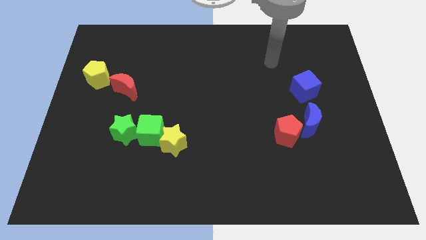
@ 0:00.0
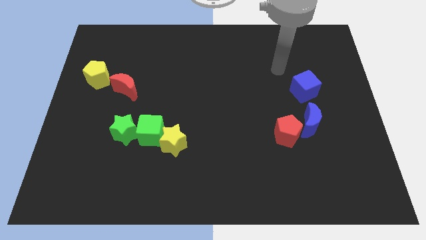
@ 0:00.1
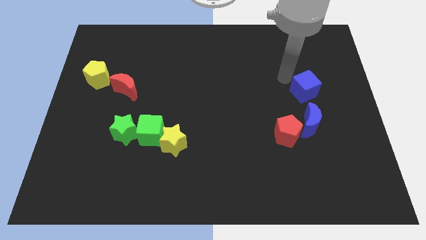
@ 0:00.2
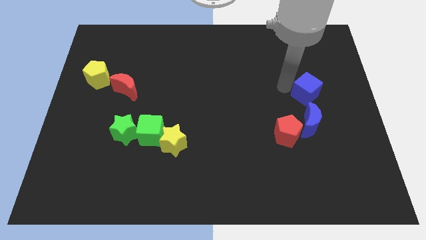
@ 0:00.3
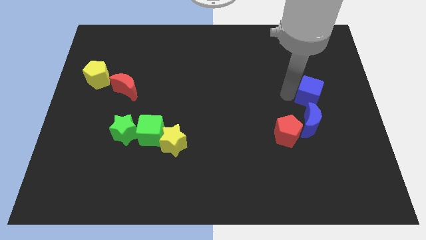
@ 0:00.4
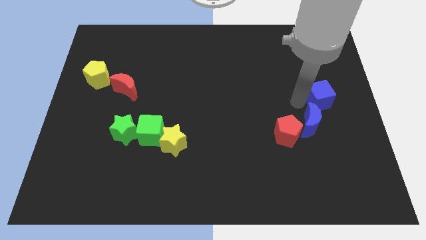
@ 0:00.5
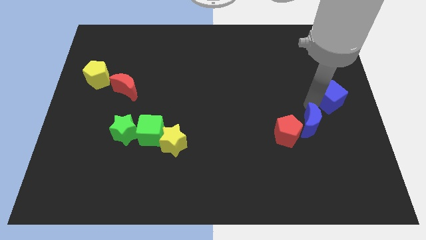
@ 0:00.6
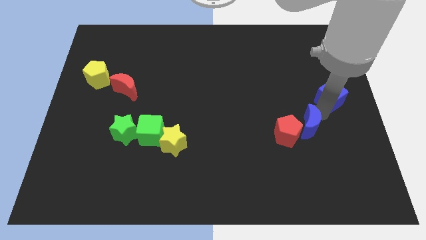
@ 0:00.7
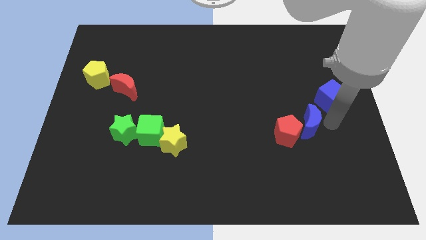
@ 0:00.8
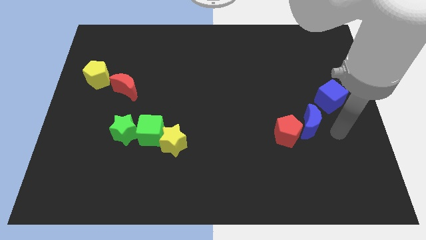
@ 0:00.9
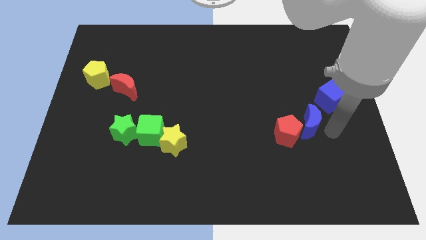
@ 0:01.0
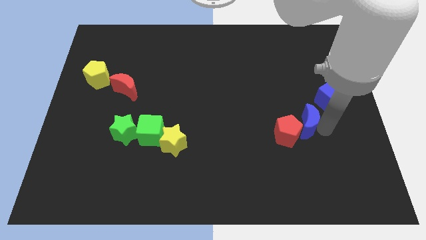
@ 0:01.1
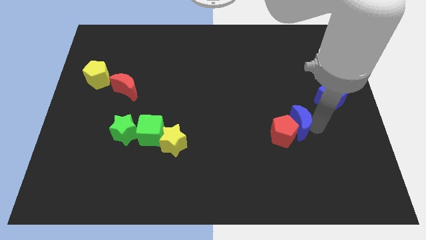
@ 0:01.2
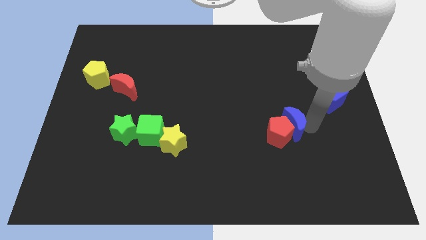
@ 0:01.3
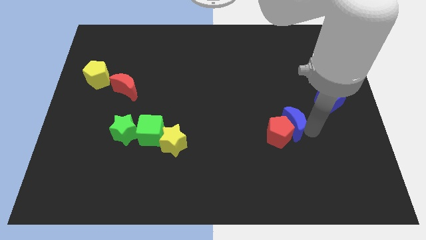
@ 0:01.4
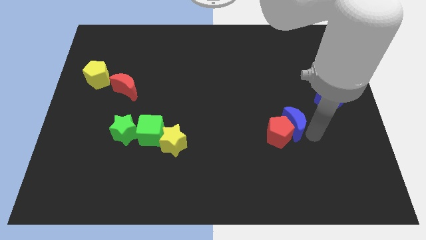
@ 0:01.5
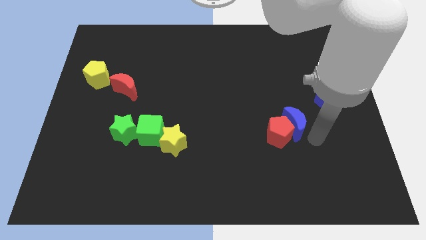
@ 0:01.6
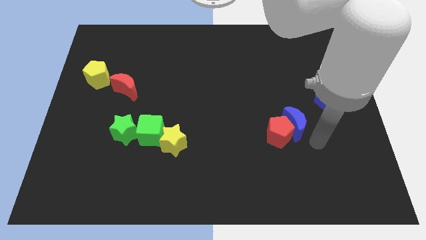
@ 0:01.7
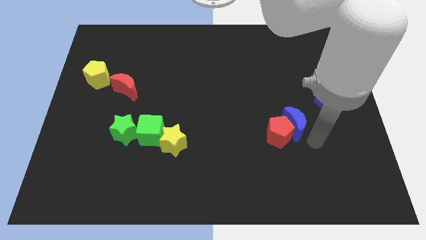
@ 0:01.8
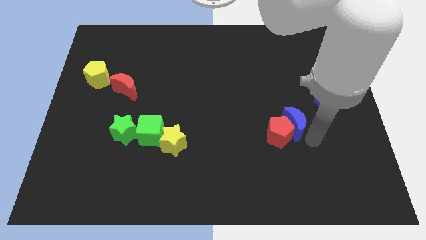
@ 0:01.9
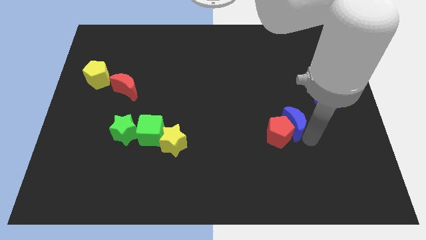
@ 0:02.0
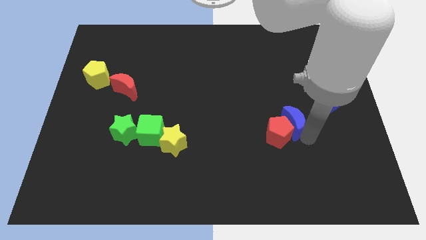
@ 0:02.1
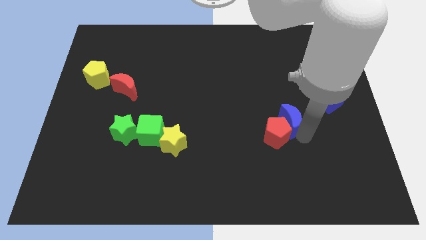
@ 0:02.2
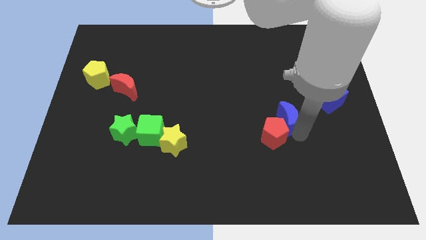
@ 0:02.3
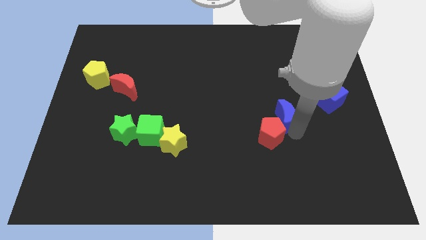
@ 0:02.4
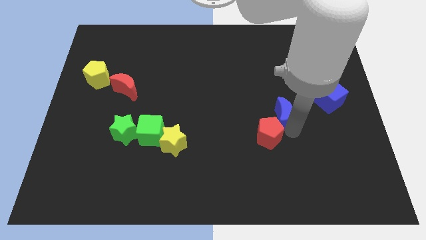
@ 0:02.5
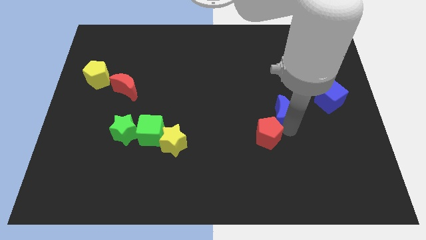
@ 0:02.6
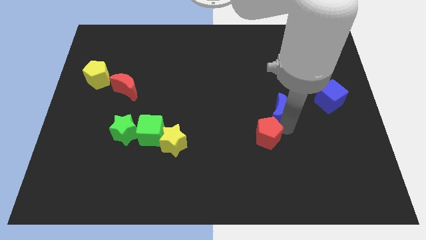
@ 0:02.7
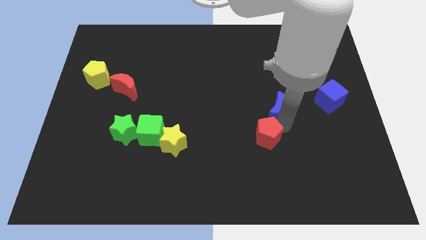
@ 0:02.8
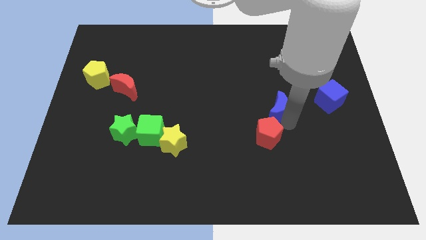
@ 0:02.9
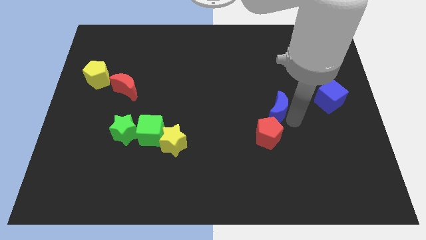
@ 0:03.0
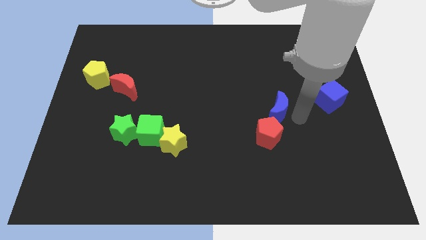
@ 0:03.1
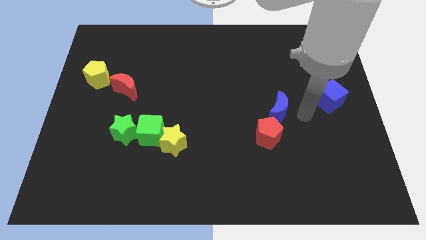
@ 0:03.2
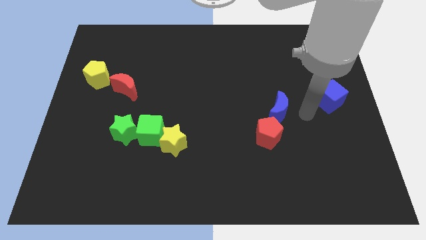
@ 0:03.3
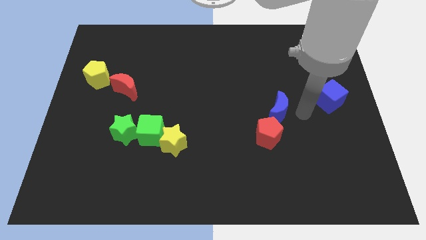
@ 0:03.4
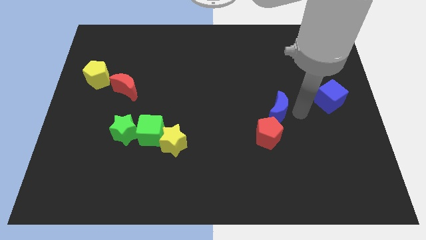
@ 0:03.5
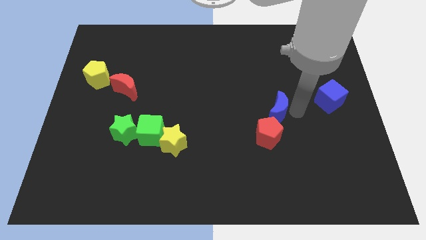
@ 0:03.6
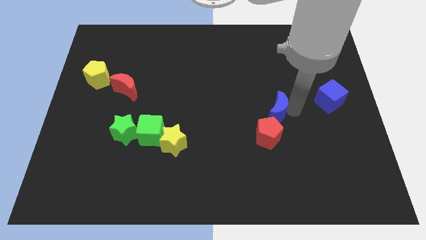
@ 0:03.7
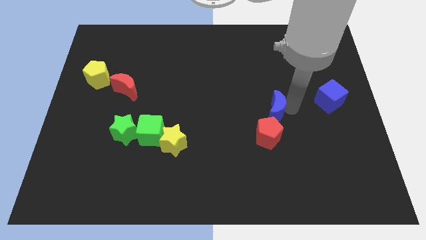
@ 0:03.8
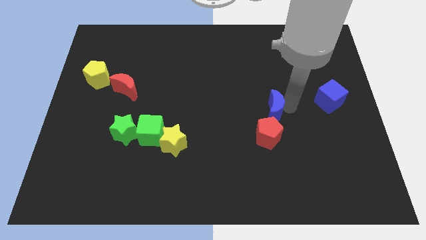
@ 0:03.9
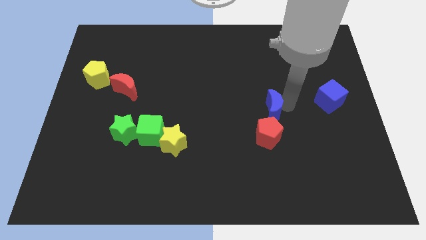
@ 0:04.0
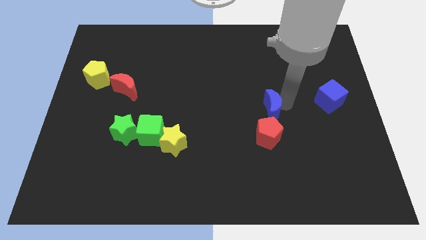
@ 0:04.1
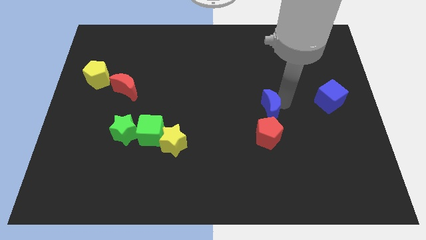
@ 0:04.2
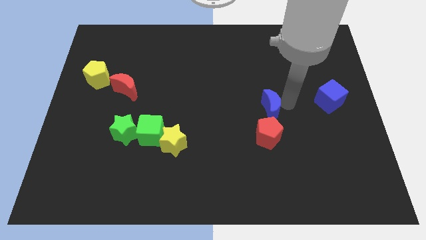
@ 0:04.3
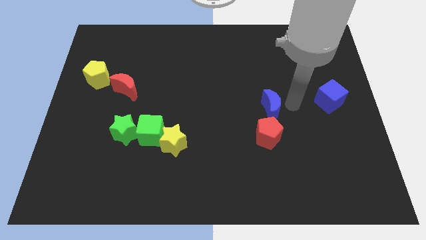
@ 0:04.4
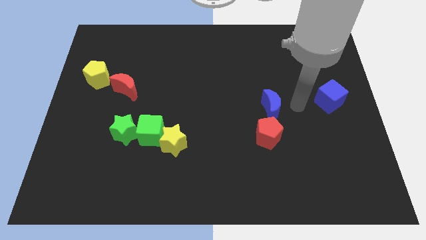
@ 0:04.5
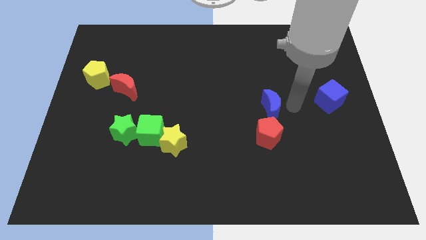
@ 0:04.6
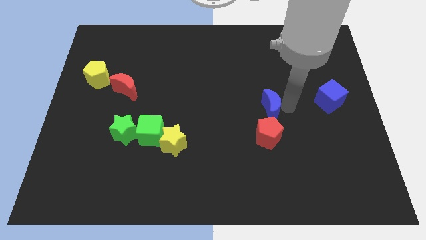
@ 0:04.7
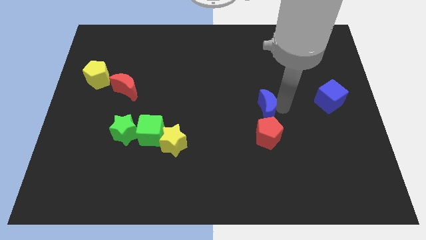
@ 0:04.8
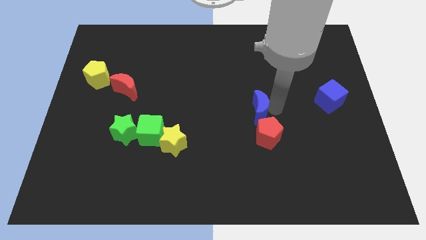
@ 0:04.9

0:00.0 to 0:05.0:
slide the blue moon to the center of the board

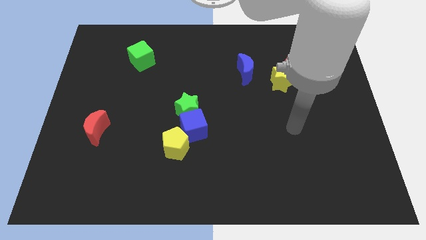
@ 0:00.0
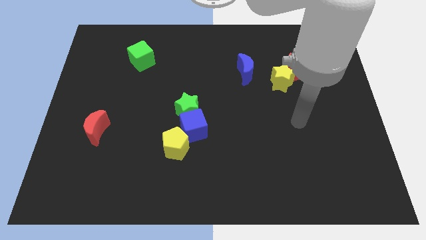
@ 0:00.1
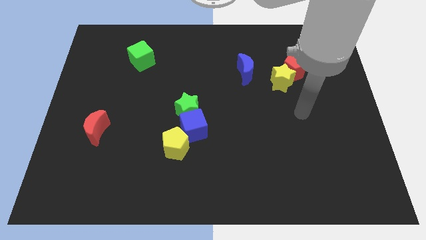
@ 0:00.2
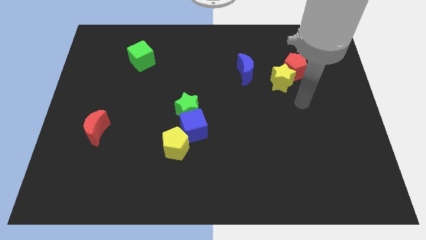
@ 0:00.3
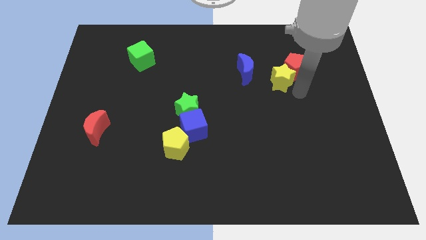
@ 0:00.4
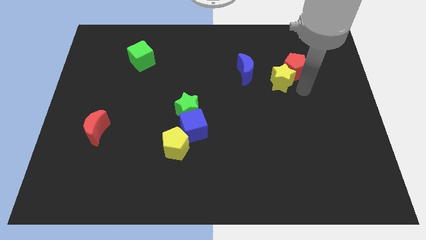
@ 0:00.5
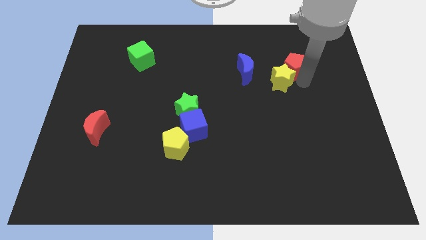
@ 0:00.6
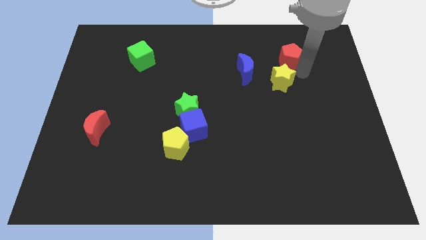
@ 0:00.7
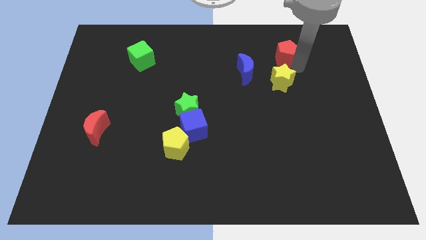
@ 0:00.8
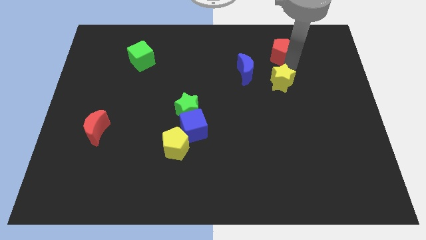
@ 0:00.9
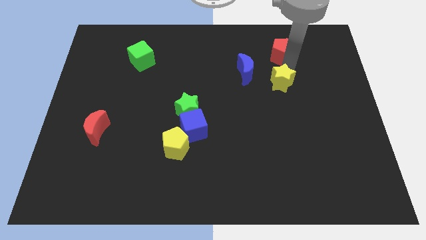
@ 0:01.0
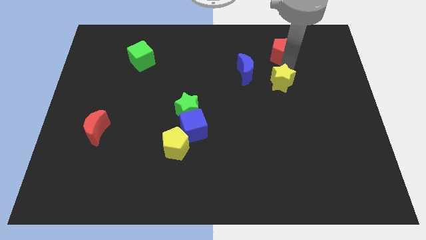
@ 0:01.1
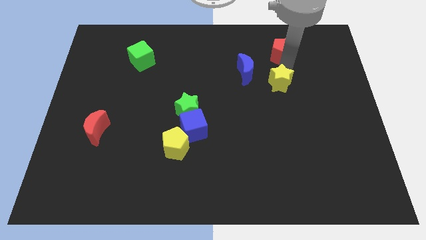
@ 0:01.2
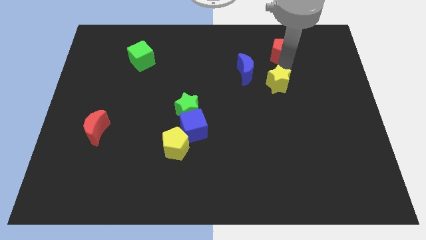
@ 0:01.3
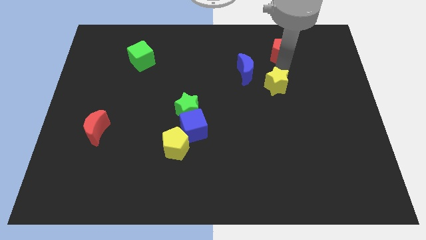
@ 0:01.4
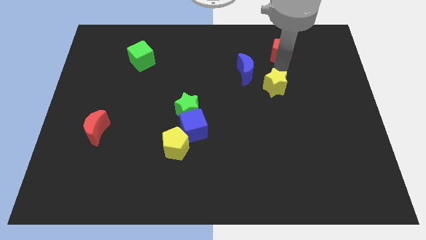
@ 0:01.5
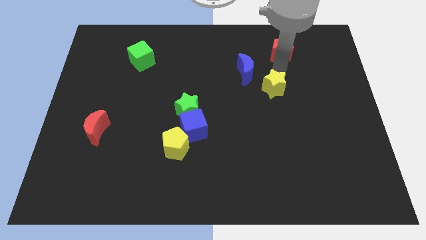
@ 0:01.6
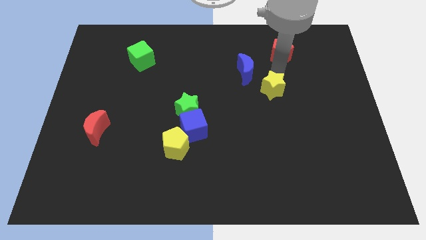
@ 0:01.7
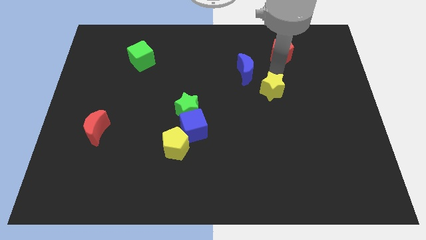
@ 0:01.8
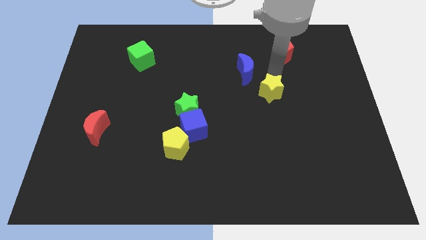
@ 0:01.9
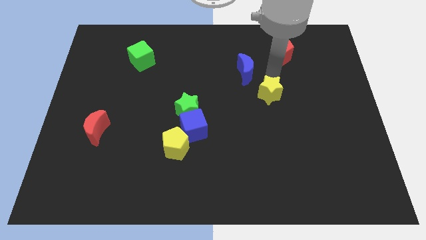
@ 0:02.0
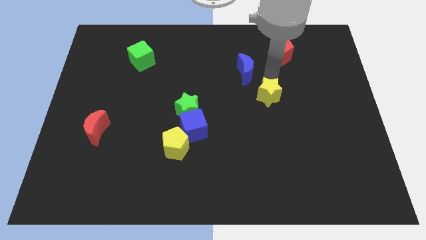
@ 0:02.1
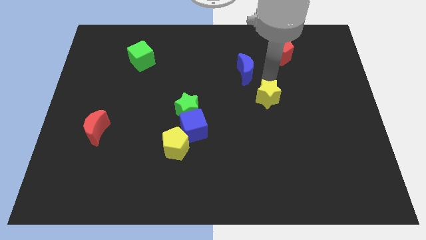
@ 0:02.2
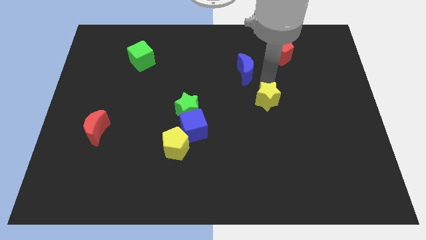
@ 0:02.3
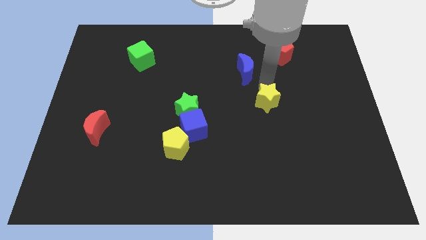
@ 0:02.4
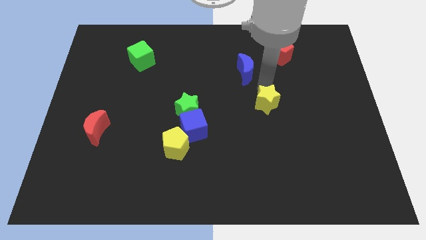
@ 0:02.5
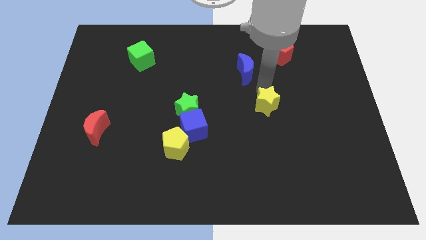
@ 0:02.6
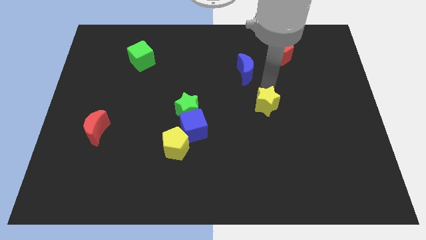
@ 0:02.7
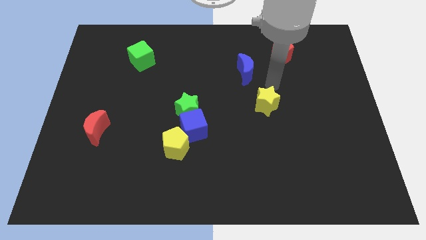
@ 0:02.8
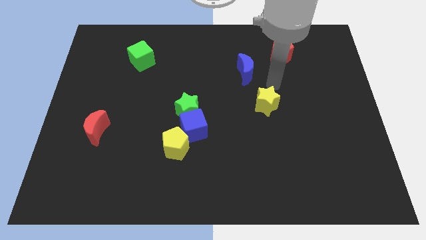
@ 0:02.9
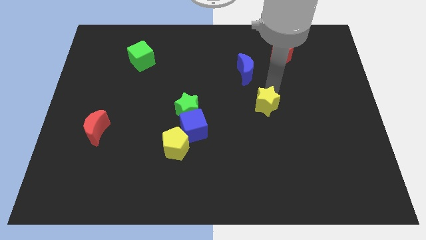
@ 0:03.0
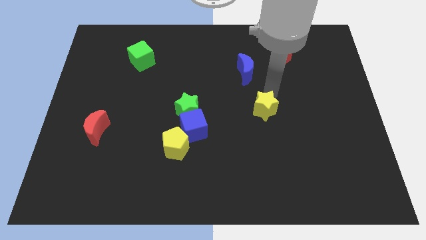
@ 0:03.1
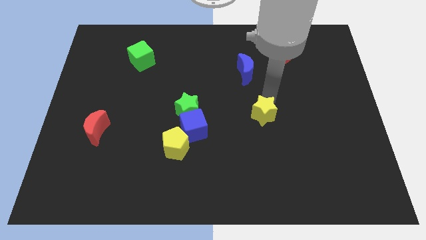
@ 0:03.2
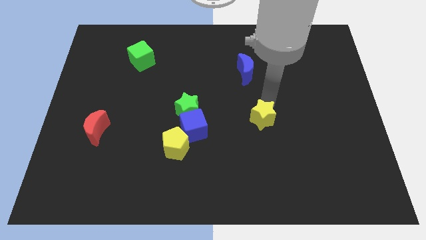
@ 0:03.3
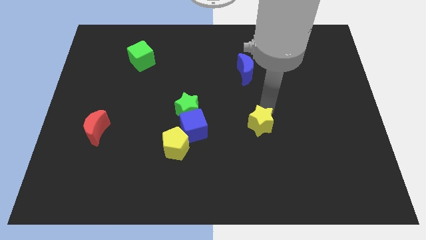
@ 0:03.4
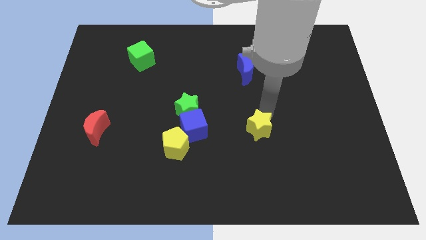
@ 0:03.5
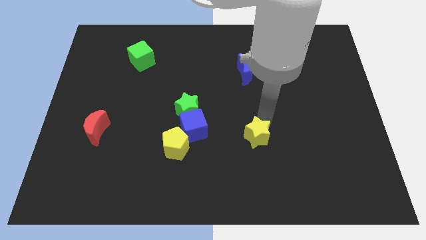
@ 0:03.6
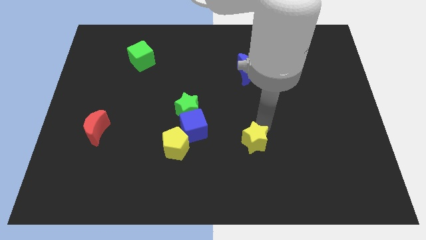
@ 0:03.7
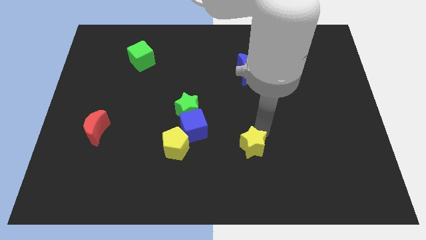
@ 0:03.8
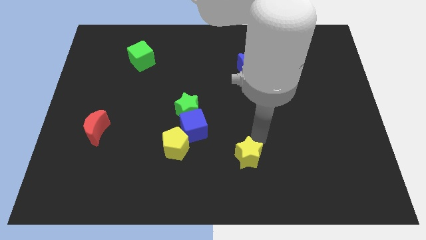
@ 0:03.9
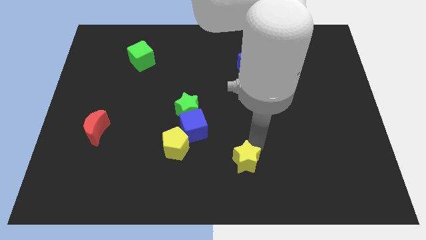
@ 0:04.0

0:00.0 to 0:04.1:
push the yellow star to the bottom side
